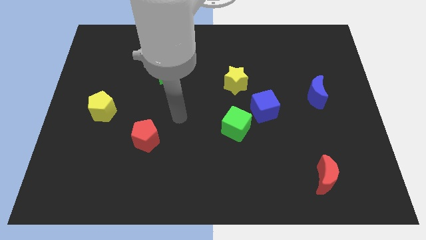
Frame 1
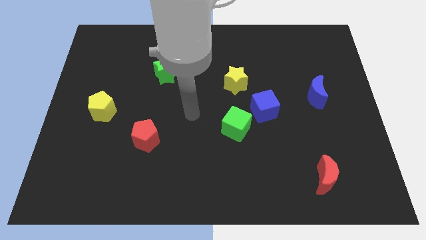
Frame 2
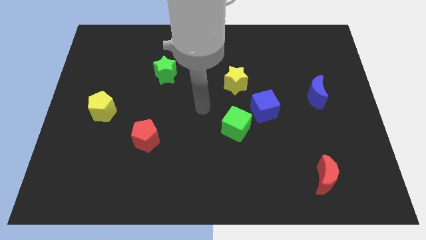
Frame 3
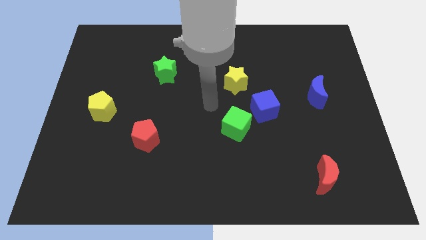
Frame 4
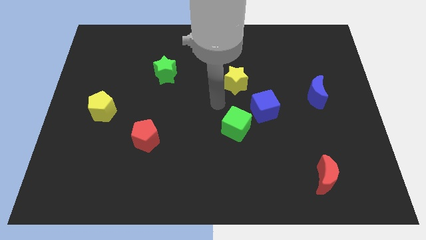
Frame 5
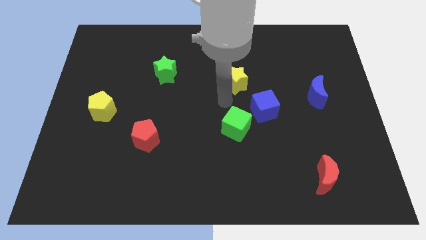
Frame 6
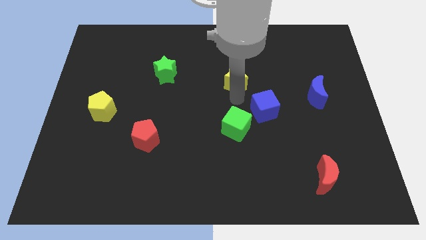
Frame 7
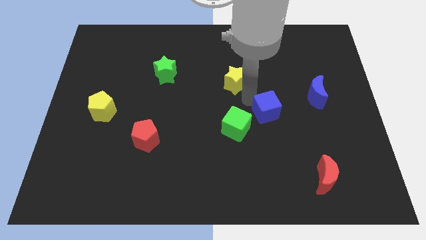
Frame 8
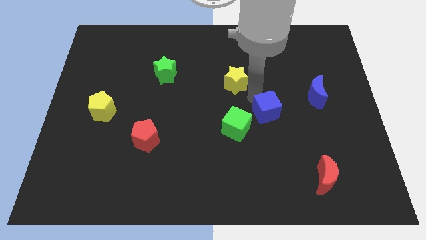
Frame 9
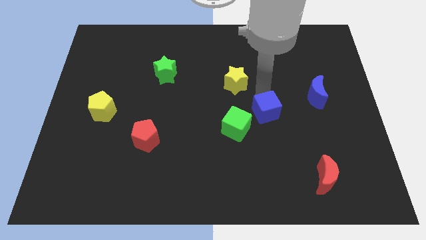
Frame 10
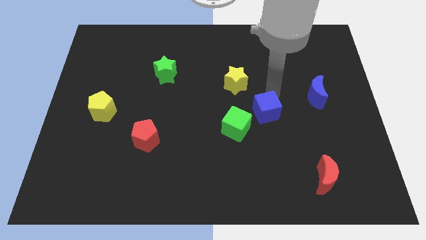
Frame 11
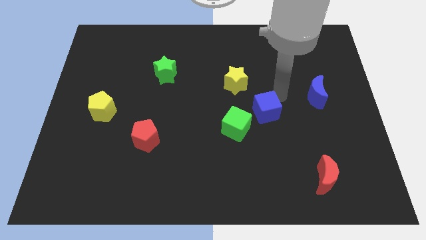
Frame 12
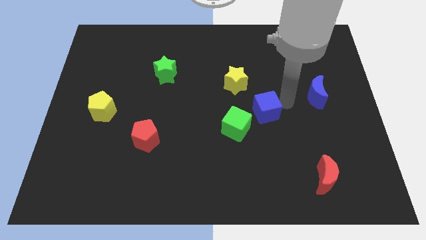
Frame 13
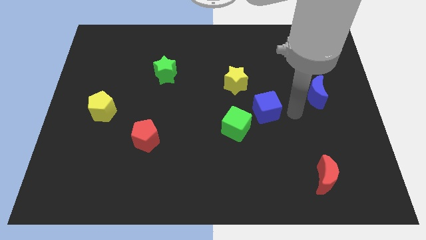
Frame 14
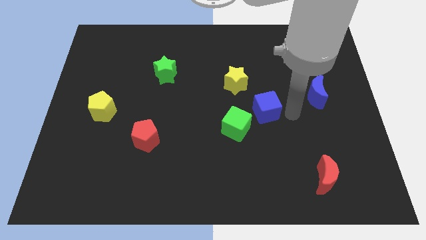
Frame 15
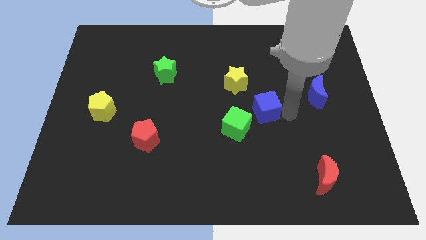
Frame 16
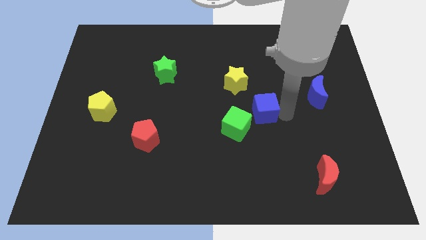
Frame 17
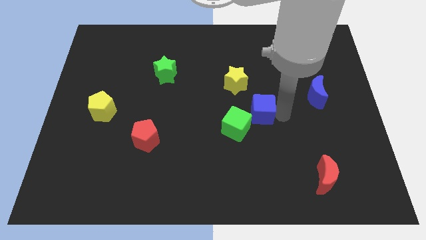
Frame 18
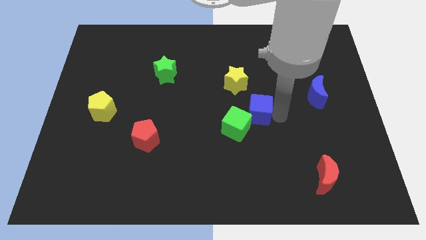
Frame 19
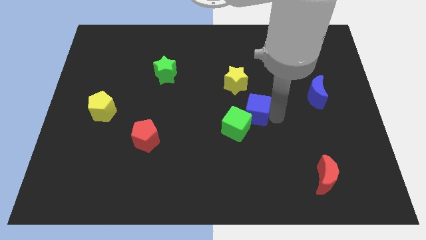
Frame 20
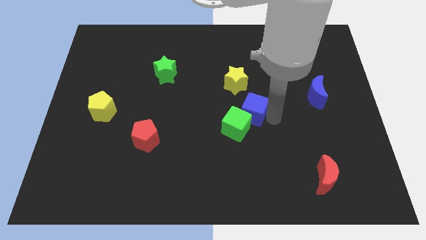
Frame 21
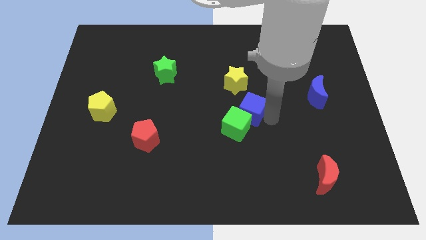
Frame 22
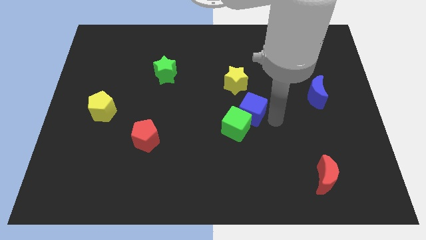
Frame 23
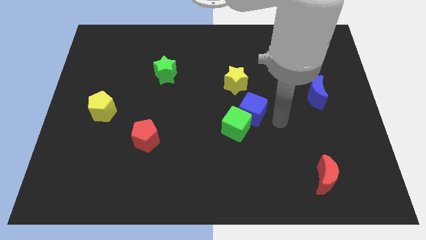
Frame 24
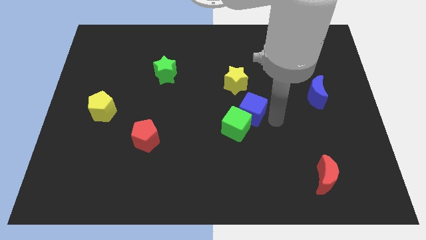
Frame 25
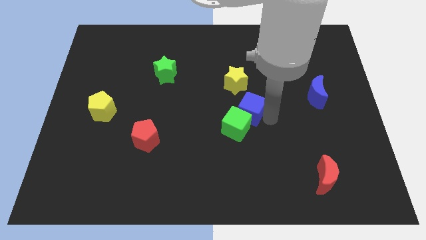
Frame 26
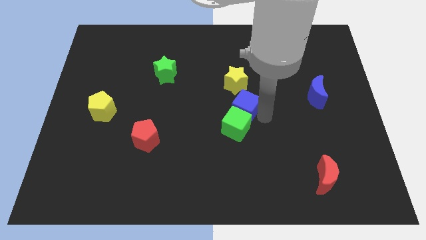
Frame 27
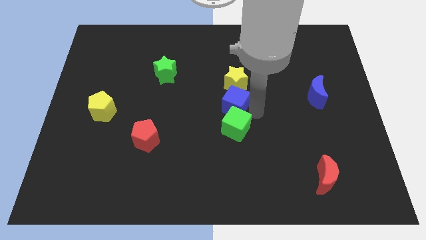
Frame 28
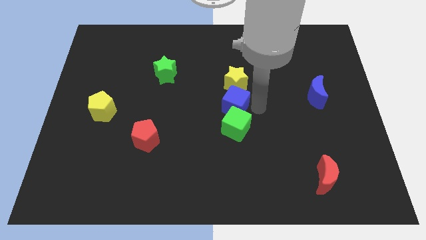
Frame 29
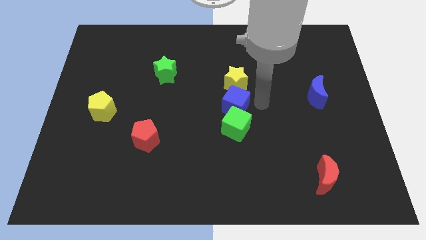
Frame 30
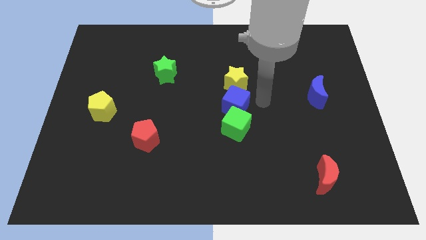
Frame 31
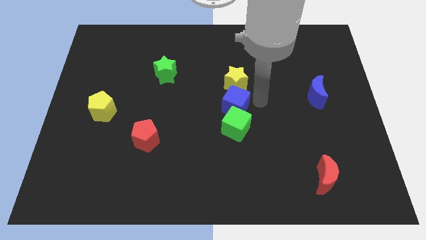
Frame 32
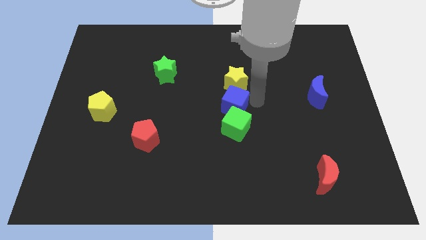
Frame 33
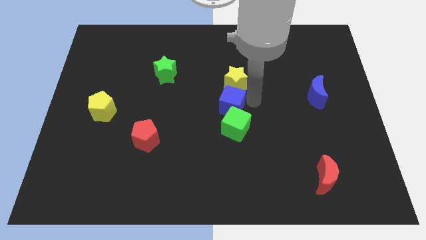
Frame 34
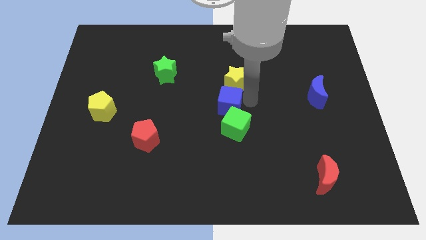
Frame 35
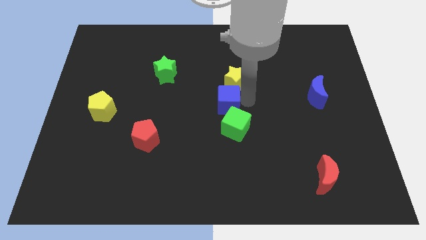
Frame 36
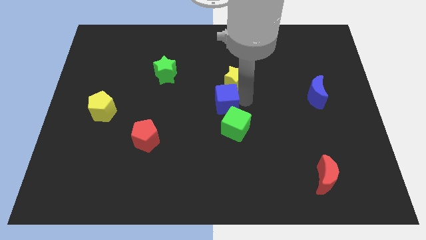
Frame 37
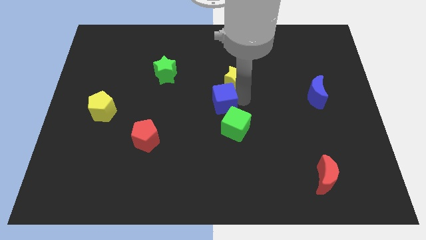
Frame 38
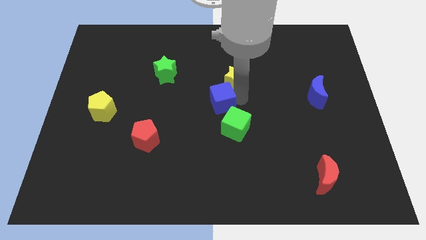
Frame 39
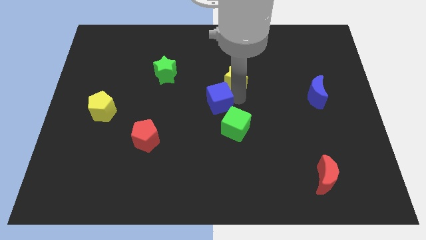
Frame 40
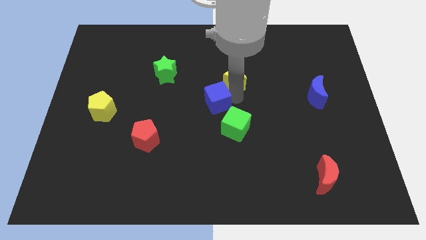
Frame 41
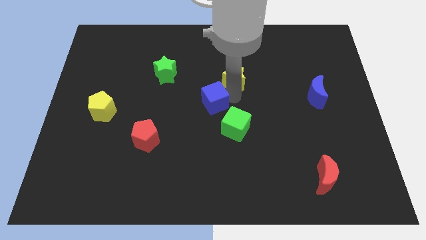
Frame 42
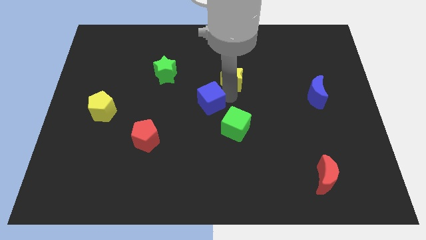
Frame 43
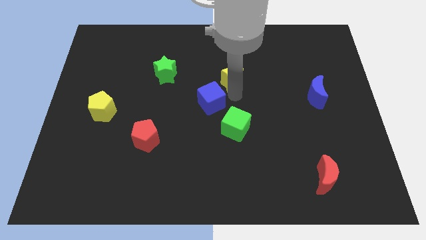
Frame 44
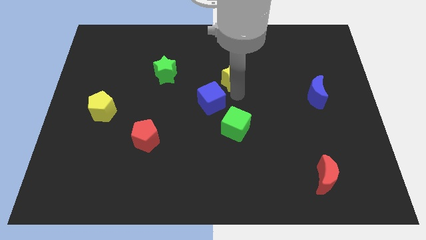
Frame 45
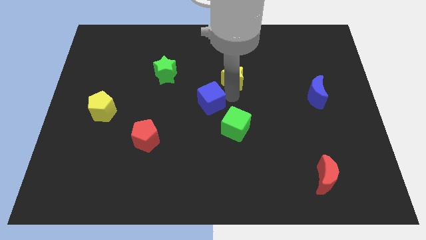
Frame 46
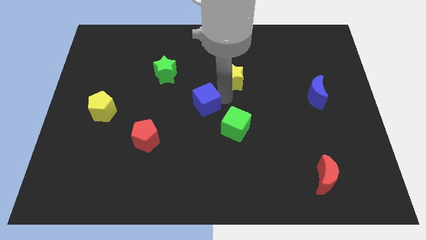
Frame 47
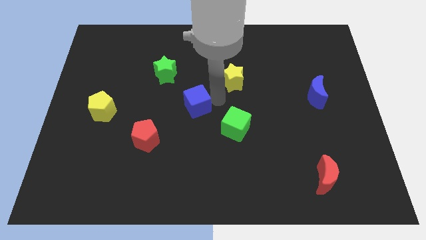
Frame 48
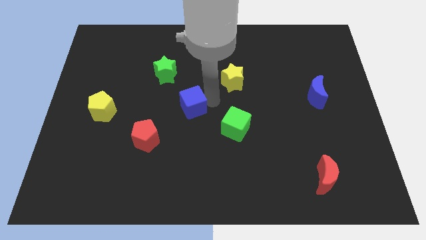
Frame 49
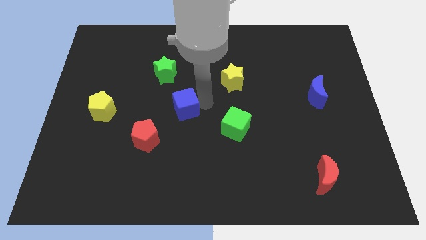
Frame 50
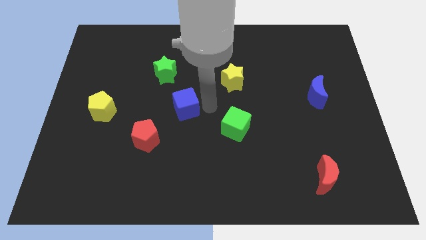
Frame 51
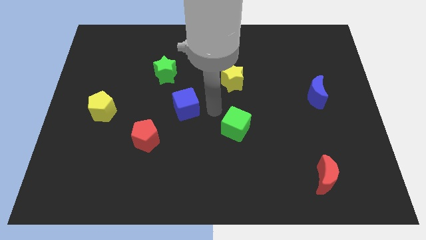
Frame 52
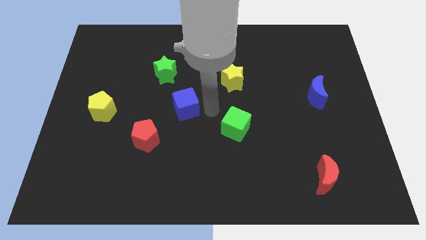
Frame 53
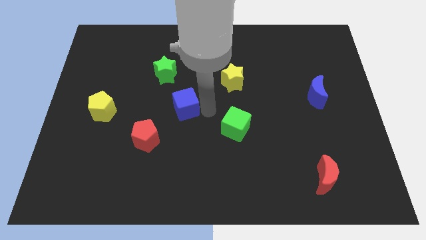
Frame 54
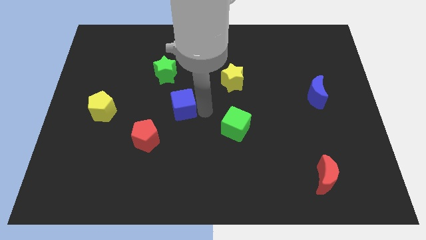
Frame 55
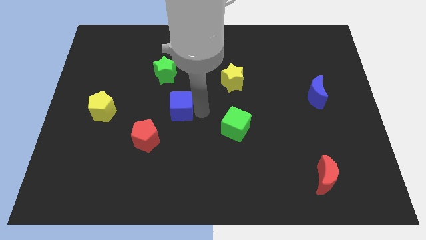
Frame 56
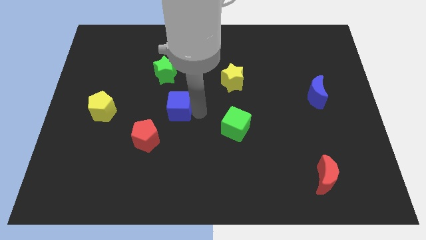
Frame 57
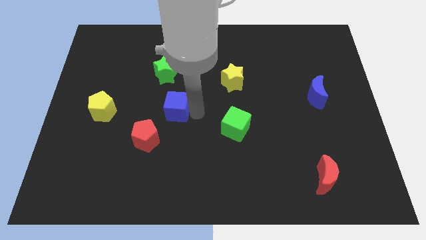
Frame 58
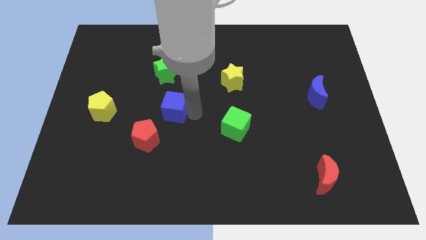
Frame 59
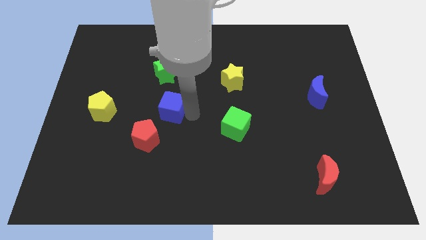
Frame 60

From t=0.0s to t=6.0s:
push the blue cube to the right of the yellow pentagon

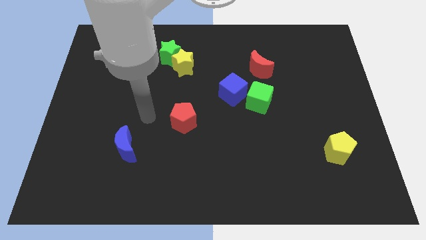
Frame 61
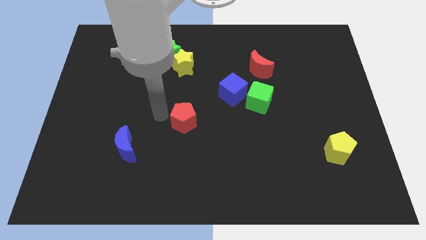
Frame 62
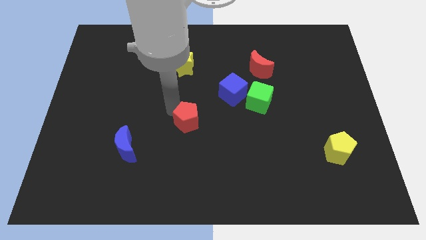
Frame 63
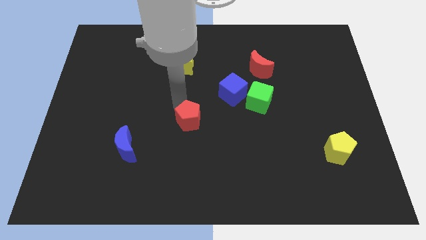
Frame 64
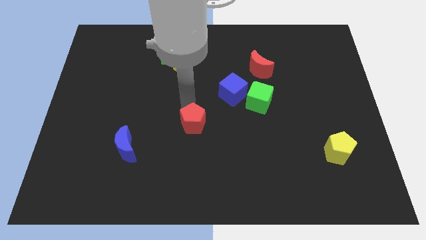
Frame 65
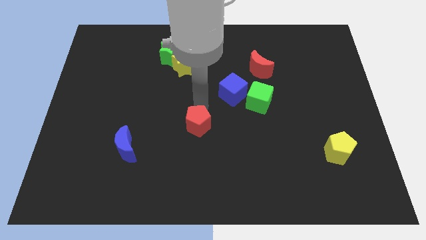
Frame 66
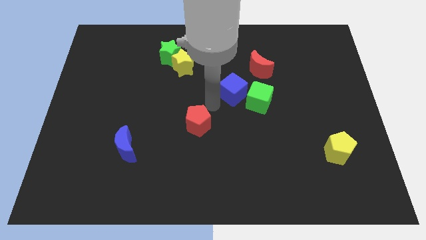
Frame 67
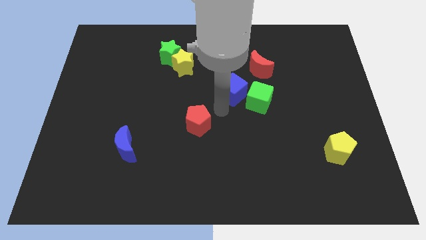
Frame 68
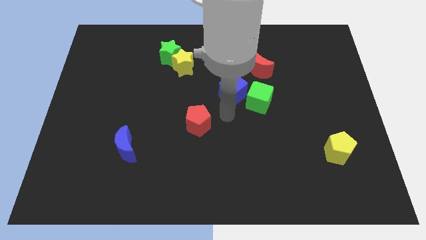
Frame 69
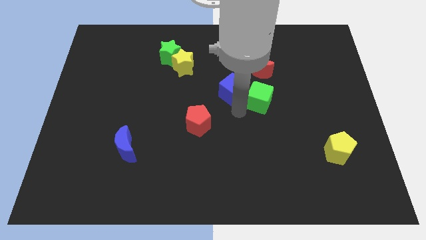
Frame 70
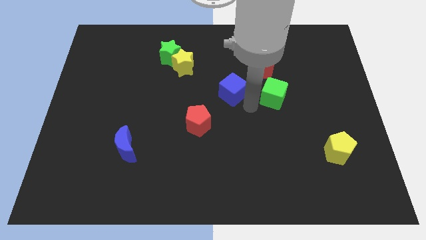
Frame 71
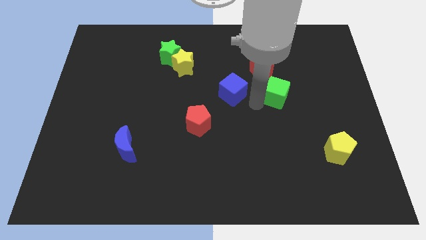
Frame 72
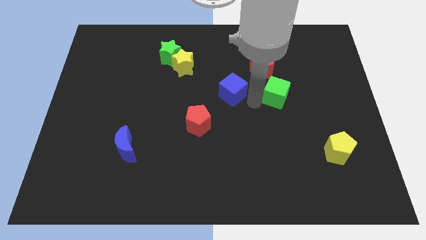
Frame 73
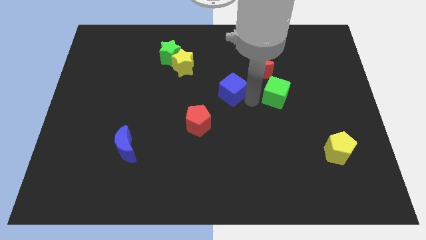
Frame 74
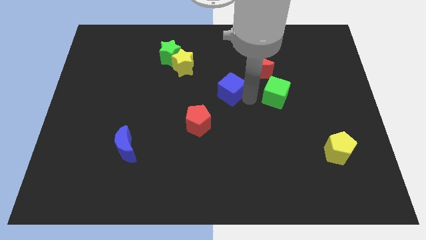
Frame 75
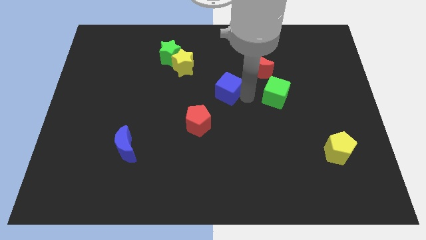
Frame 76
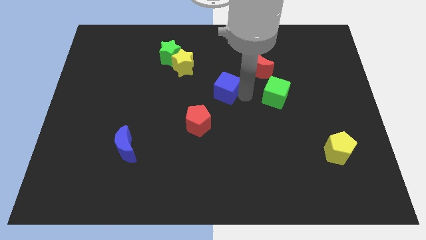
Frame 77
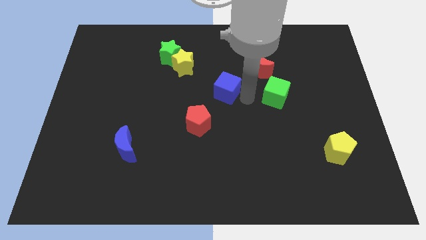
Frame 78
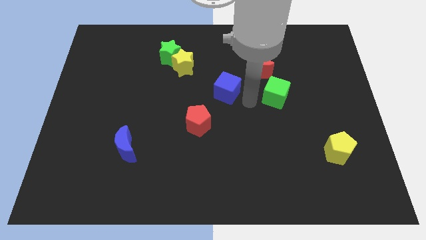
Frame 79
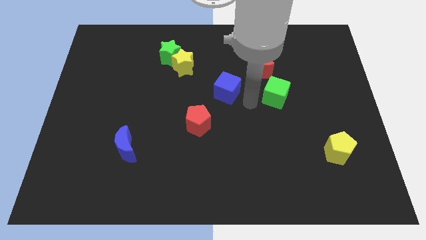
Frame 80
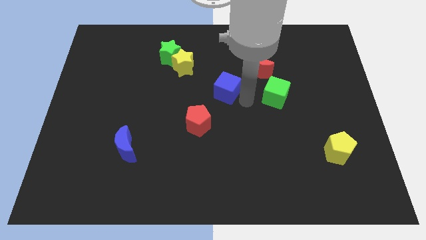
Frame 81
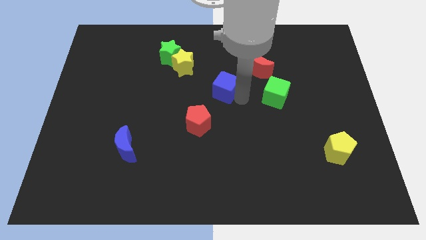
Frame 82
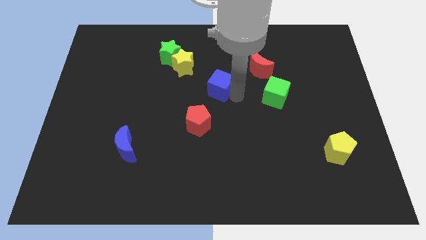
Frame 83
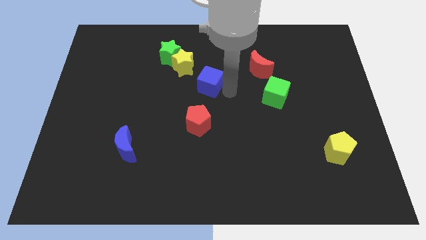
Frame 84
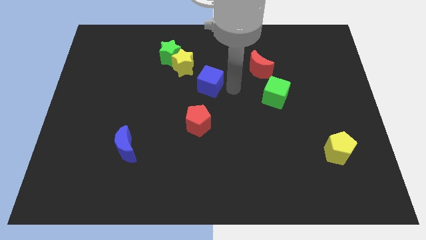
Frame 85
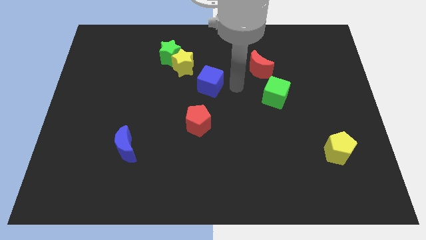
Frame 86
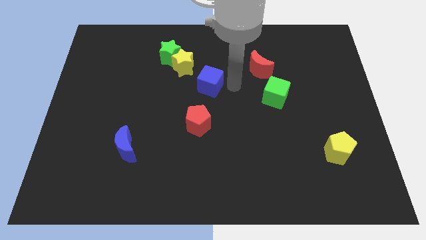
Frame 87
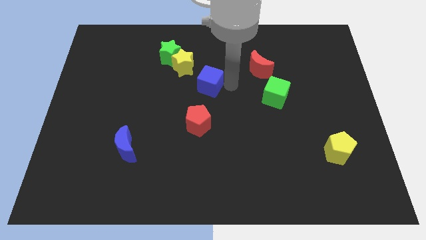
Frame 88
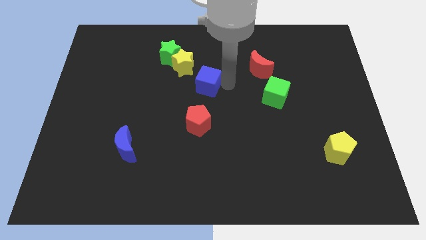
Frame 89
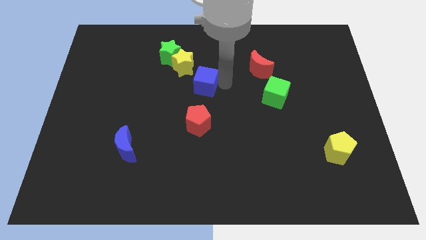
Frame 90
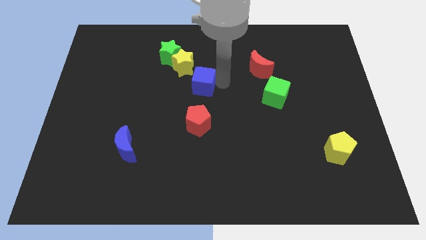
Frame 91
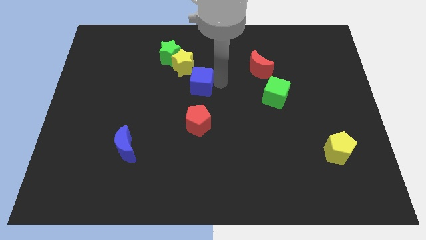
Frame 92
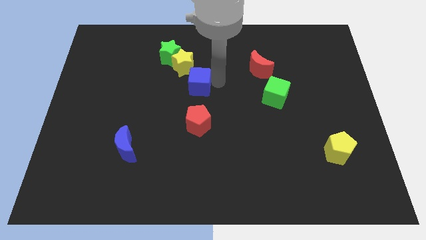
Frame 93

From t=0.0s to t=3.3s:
put the blue cube to the bottom right side of the green star
